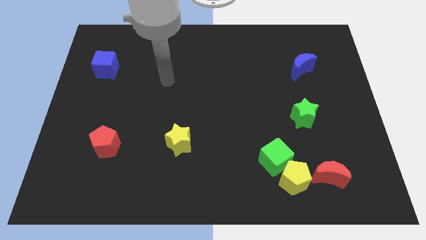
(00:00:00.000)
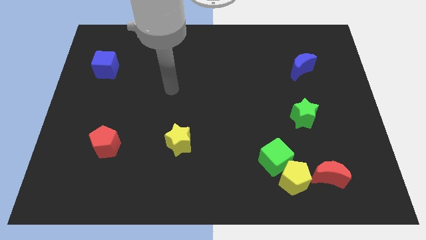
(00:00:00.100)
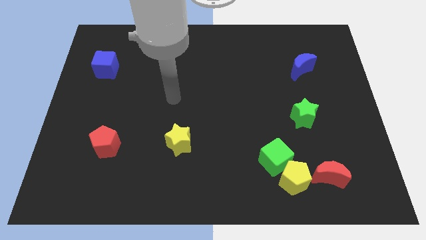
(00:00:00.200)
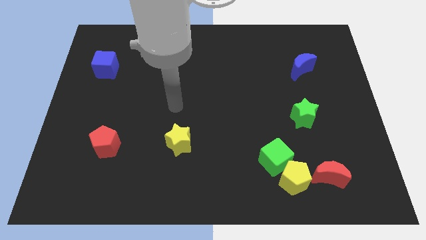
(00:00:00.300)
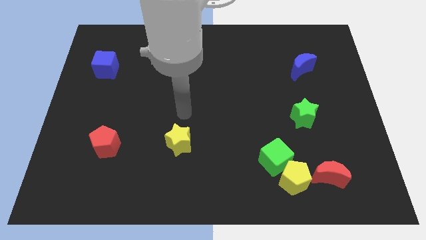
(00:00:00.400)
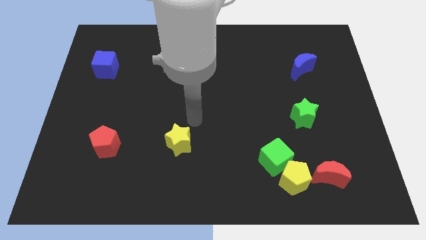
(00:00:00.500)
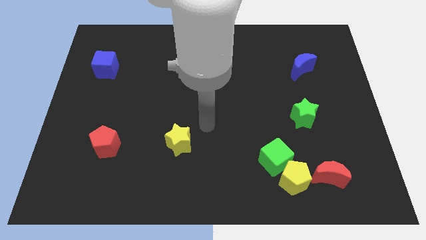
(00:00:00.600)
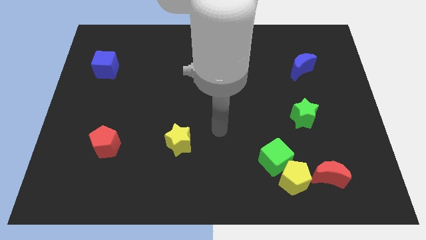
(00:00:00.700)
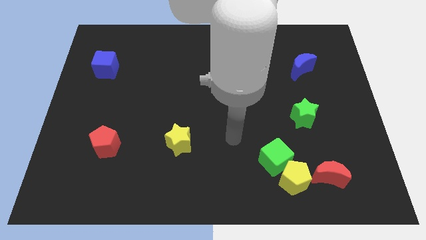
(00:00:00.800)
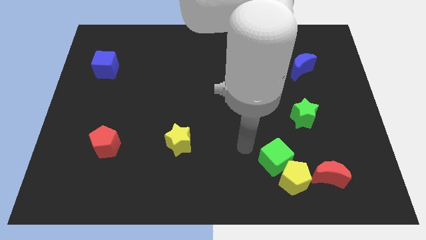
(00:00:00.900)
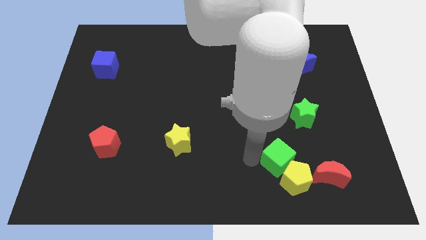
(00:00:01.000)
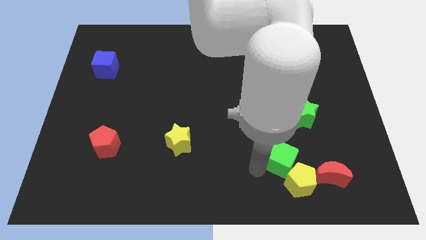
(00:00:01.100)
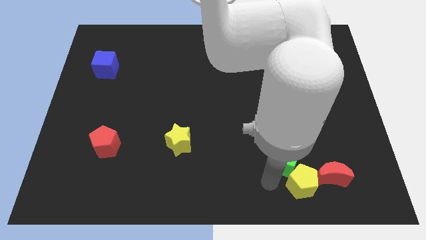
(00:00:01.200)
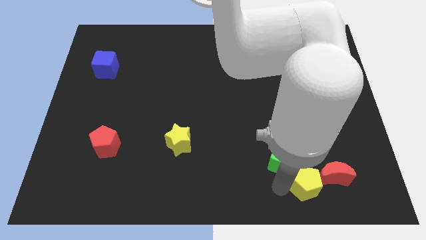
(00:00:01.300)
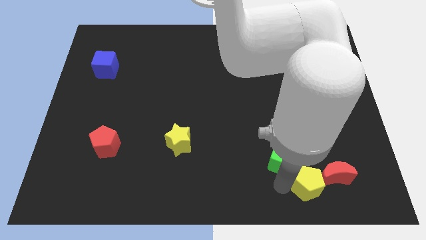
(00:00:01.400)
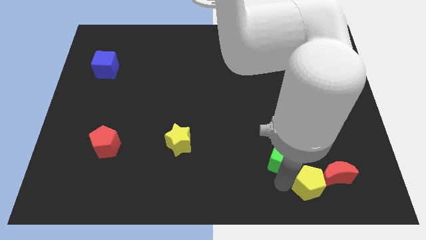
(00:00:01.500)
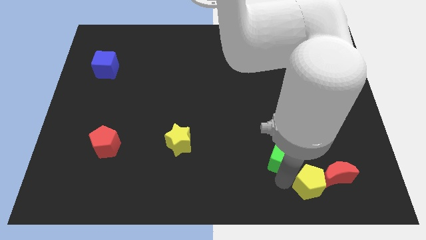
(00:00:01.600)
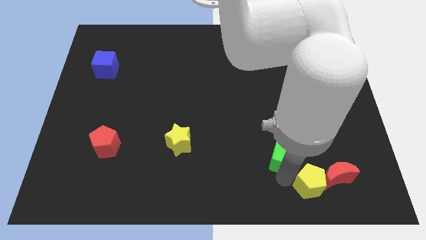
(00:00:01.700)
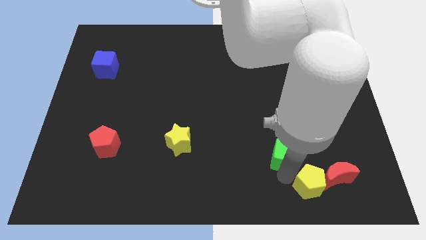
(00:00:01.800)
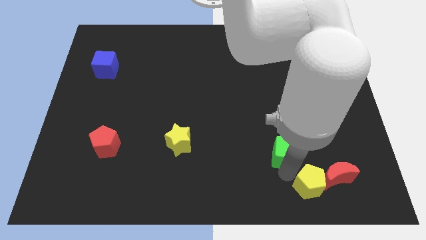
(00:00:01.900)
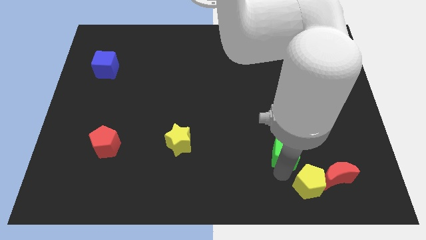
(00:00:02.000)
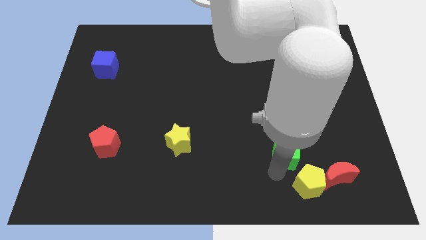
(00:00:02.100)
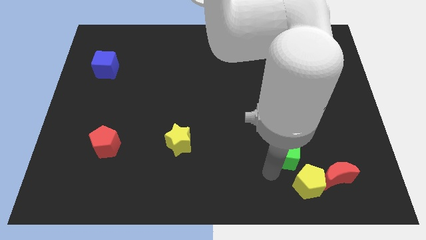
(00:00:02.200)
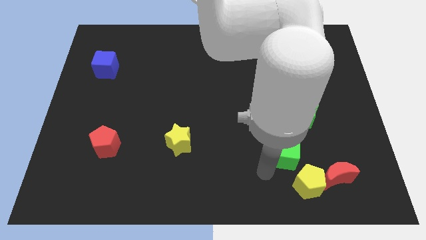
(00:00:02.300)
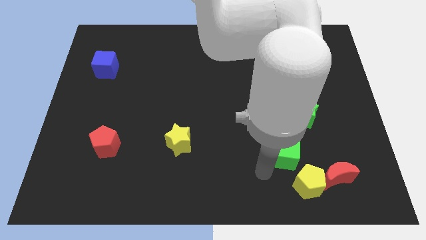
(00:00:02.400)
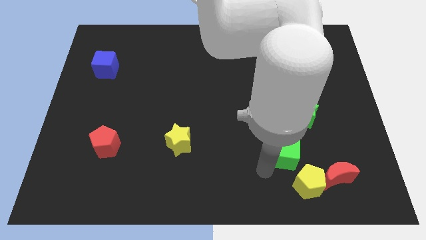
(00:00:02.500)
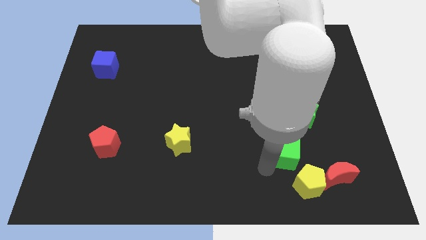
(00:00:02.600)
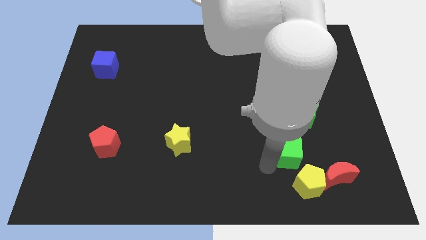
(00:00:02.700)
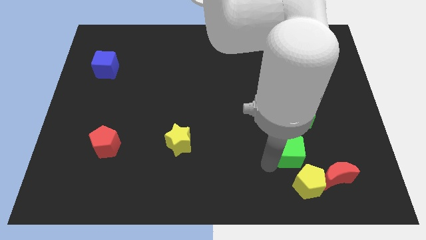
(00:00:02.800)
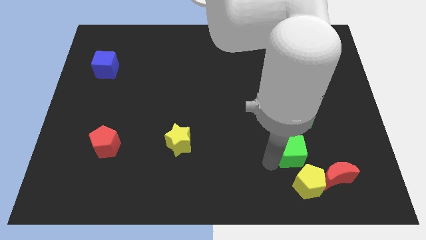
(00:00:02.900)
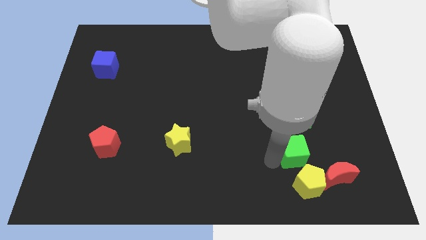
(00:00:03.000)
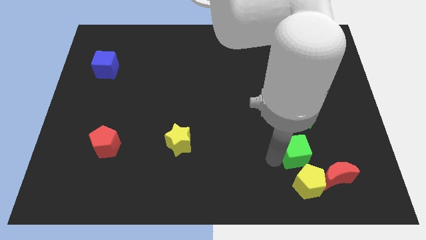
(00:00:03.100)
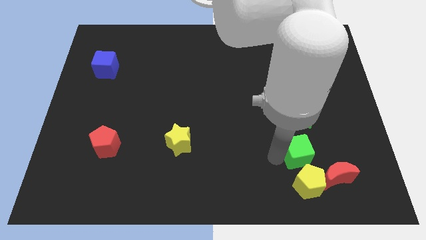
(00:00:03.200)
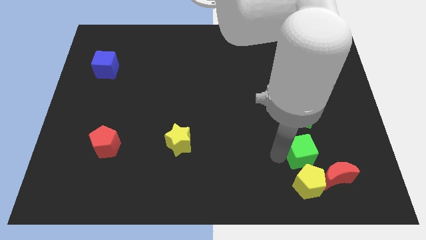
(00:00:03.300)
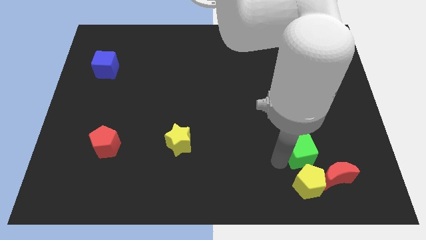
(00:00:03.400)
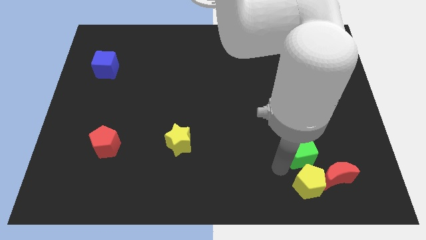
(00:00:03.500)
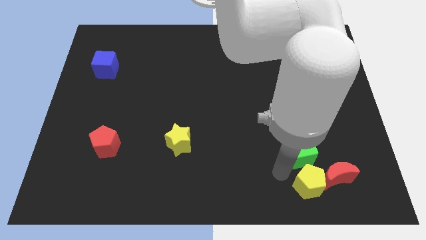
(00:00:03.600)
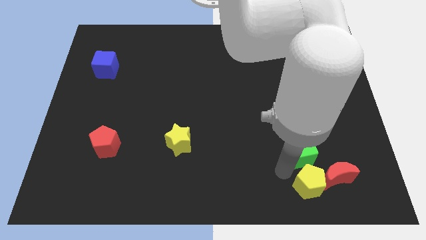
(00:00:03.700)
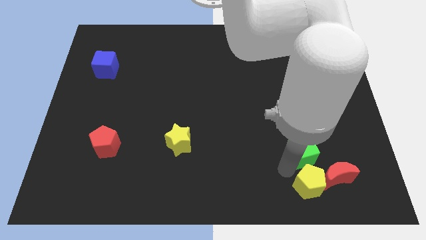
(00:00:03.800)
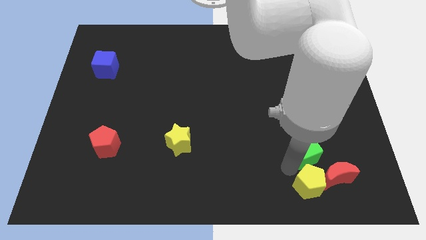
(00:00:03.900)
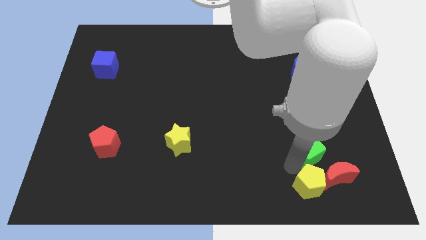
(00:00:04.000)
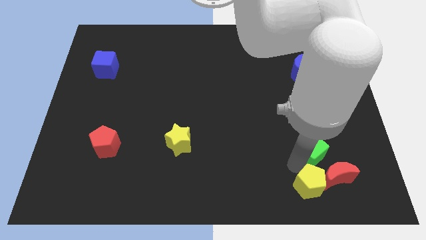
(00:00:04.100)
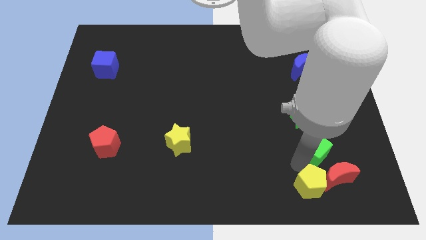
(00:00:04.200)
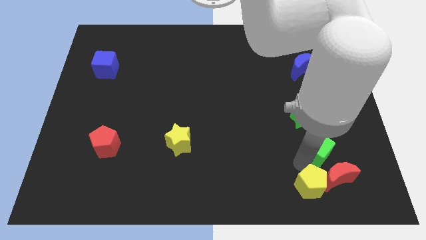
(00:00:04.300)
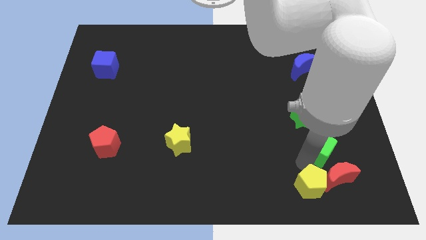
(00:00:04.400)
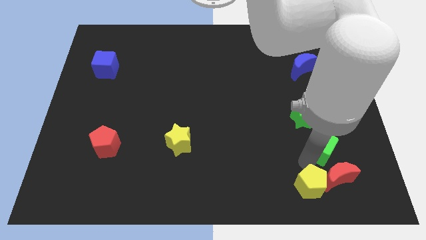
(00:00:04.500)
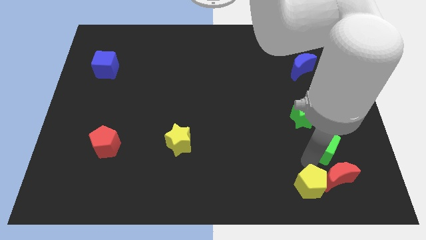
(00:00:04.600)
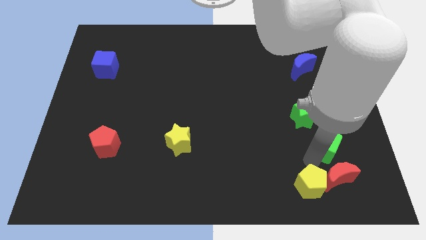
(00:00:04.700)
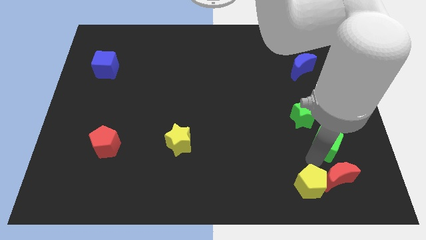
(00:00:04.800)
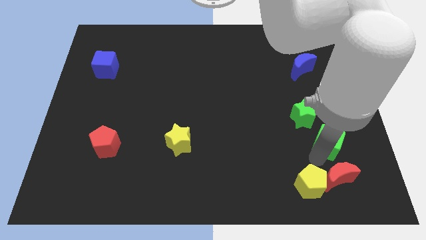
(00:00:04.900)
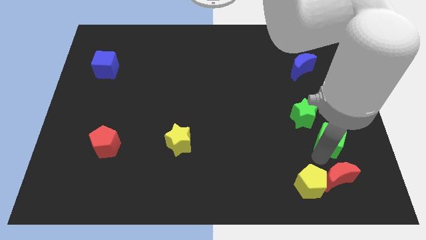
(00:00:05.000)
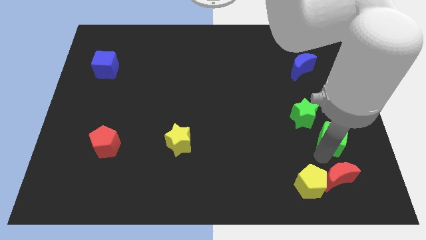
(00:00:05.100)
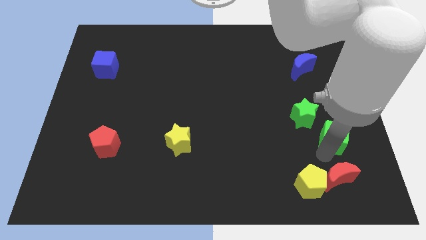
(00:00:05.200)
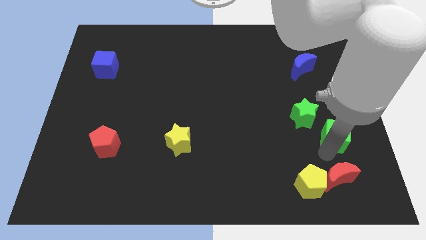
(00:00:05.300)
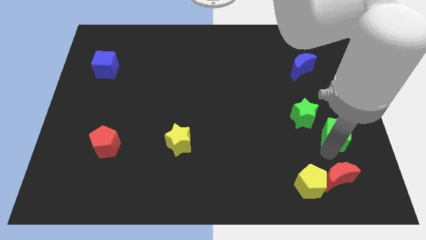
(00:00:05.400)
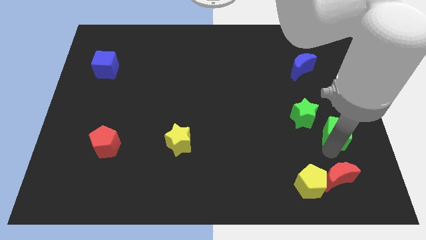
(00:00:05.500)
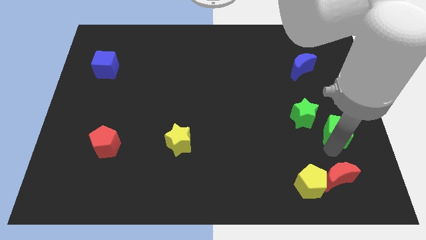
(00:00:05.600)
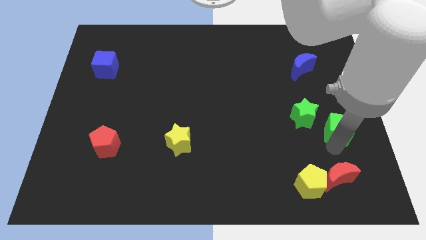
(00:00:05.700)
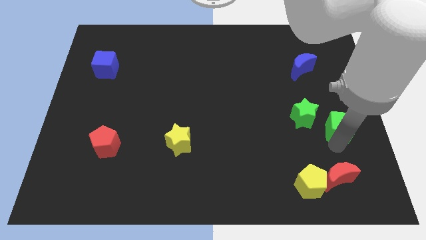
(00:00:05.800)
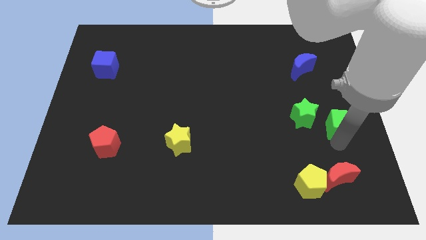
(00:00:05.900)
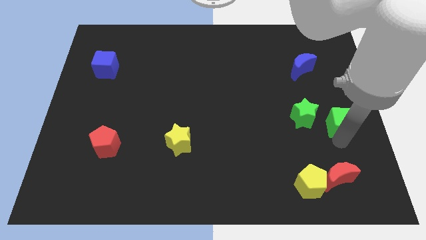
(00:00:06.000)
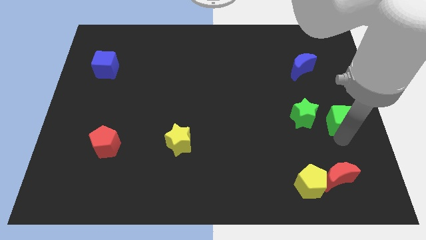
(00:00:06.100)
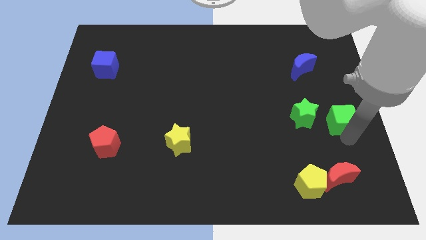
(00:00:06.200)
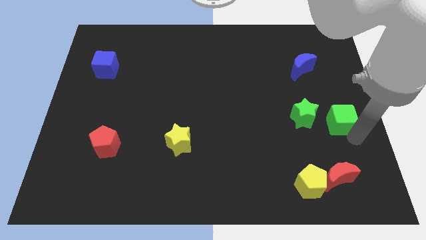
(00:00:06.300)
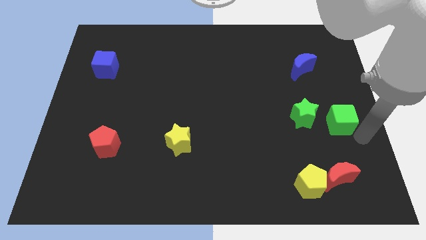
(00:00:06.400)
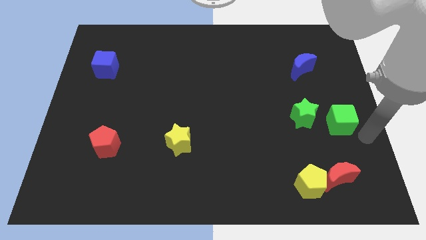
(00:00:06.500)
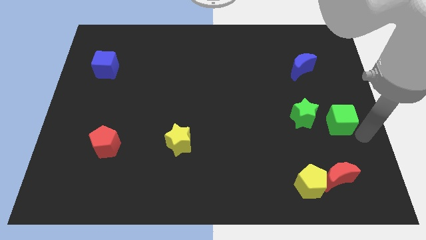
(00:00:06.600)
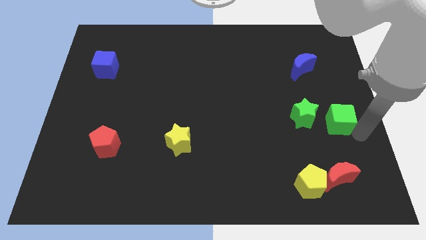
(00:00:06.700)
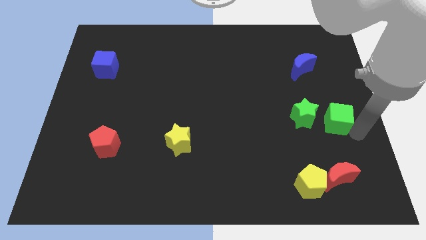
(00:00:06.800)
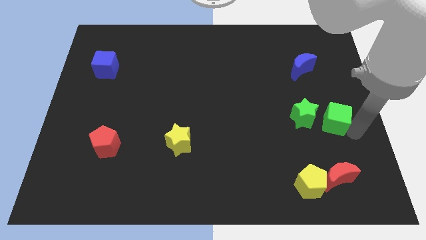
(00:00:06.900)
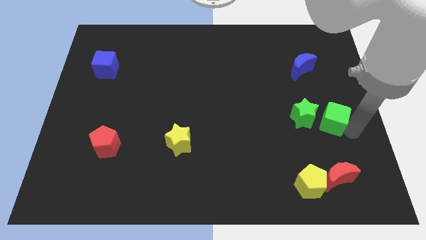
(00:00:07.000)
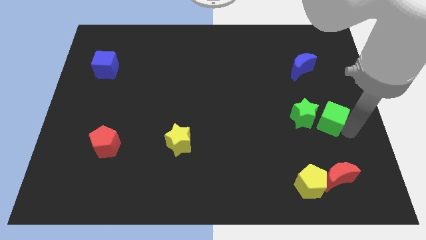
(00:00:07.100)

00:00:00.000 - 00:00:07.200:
slide the green cube to the top right side of the green star
